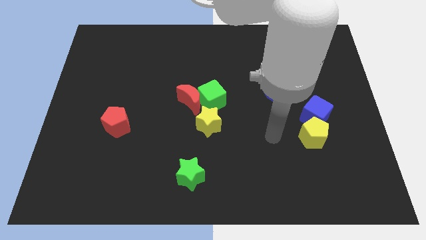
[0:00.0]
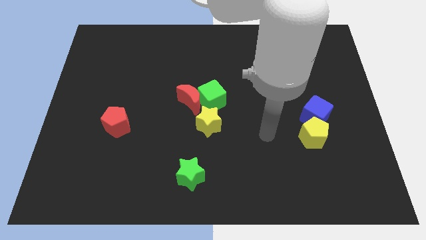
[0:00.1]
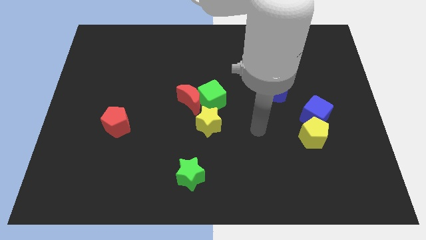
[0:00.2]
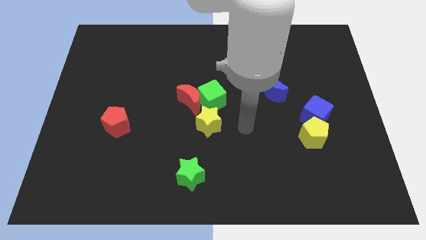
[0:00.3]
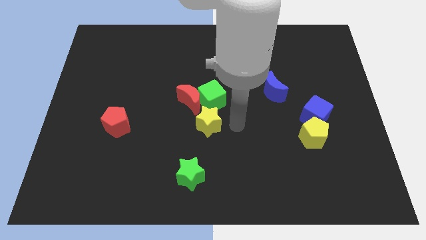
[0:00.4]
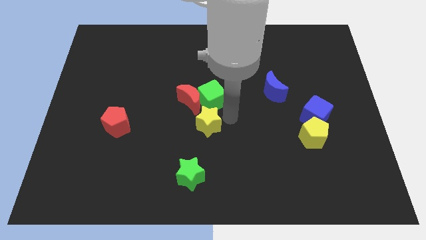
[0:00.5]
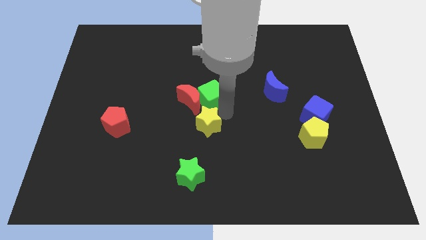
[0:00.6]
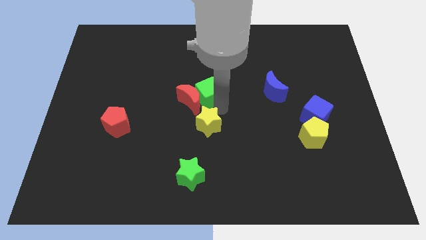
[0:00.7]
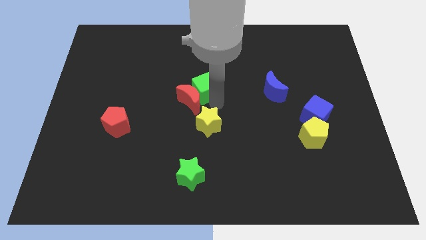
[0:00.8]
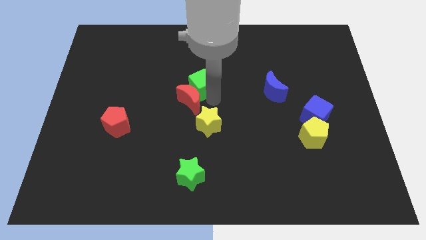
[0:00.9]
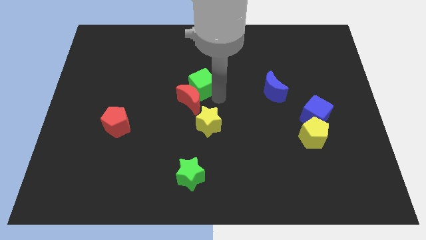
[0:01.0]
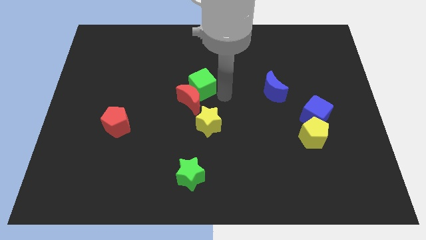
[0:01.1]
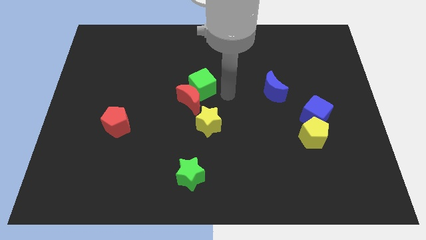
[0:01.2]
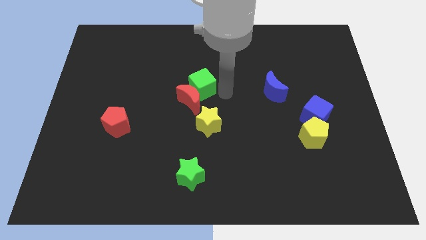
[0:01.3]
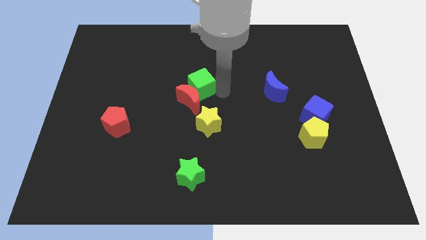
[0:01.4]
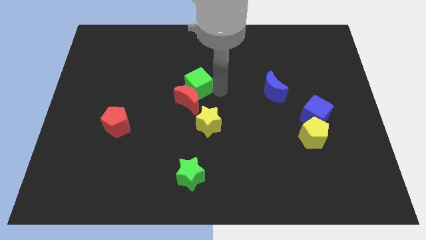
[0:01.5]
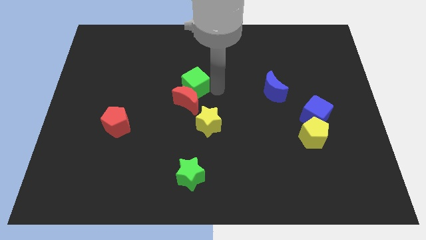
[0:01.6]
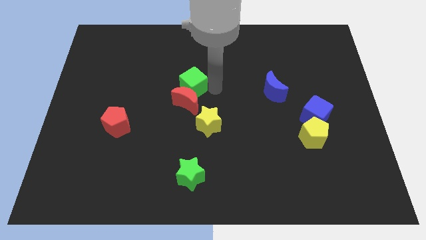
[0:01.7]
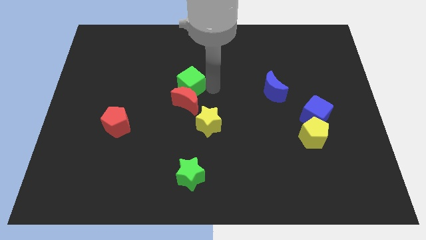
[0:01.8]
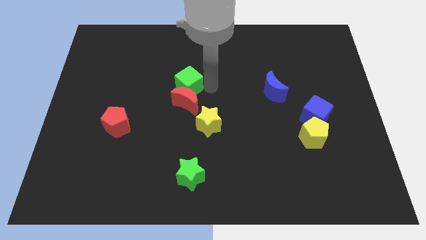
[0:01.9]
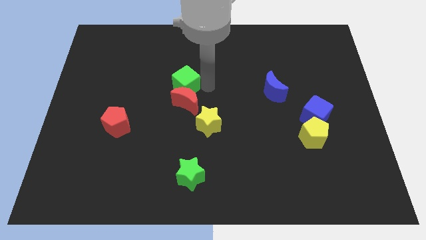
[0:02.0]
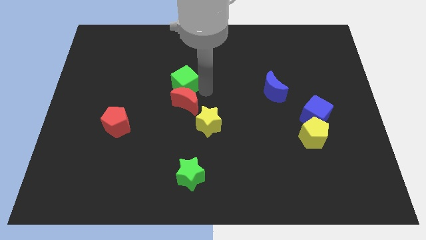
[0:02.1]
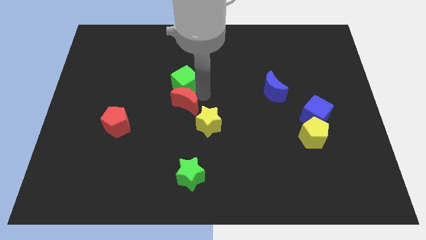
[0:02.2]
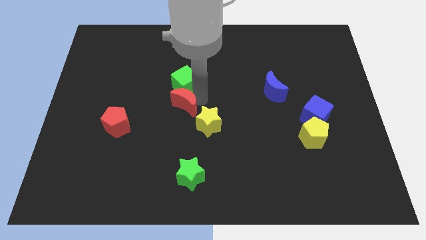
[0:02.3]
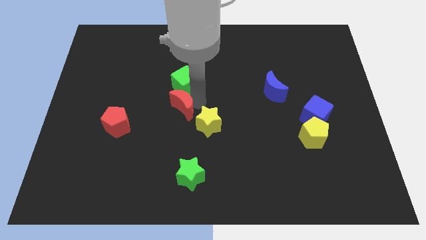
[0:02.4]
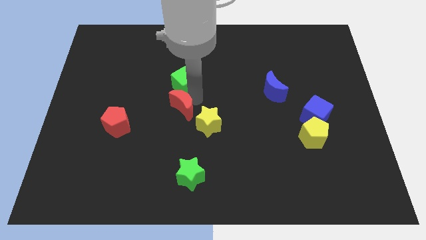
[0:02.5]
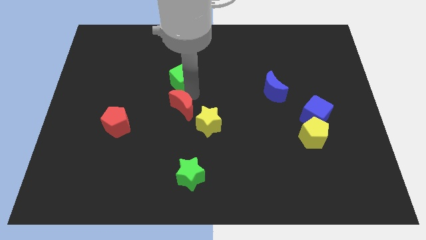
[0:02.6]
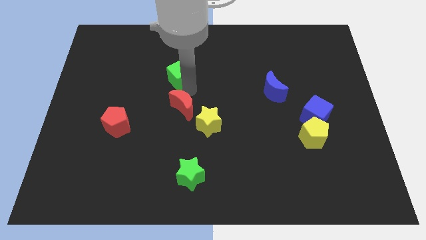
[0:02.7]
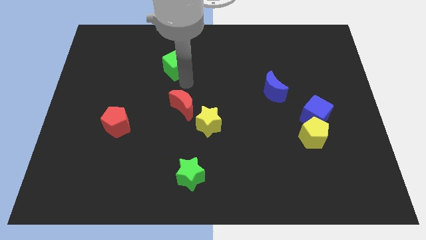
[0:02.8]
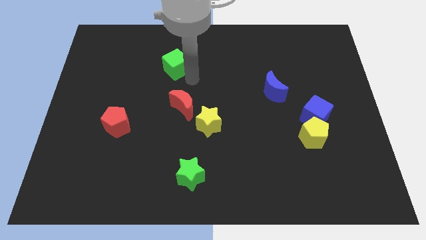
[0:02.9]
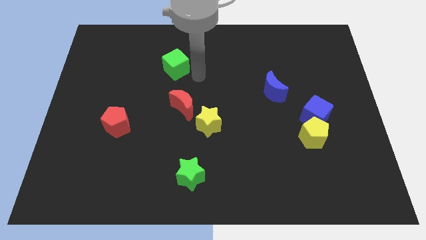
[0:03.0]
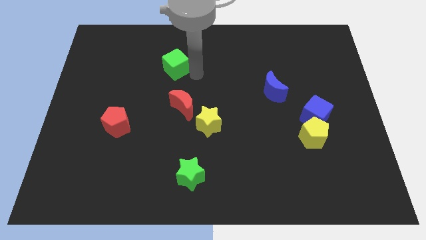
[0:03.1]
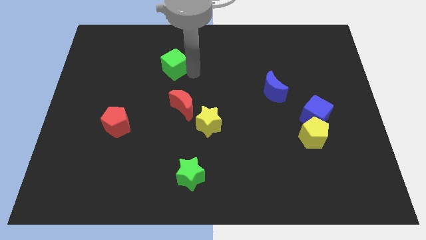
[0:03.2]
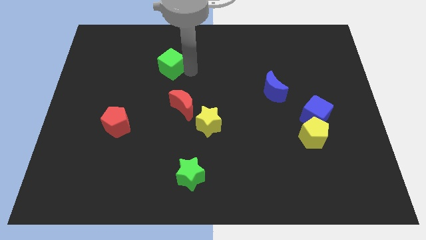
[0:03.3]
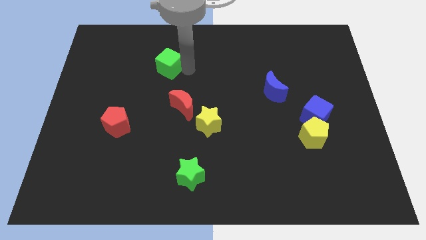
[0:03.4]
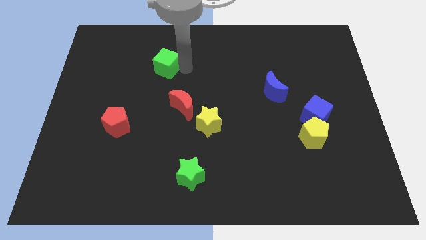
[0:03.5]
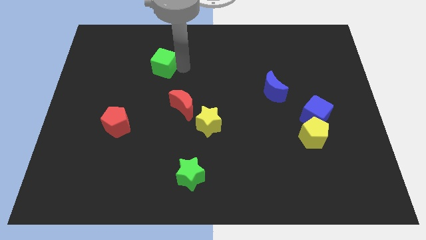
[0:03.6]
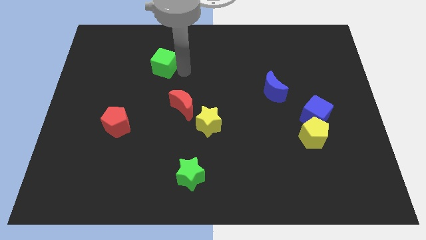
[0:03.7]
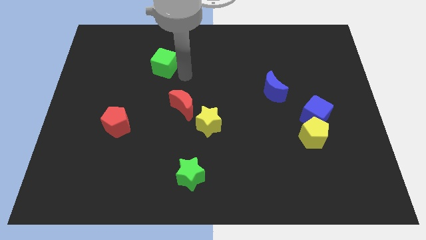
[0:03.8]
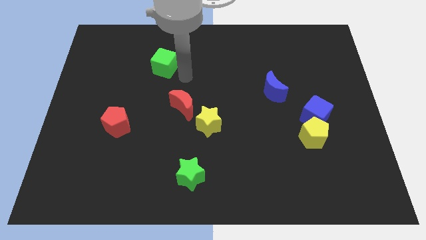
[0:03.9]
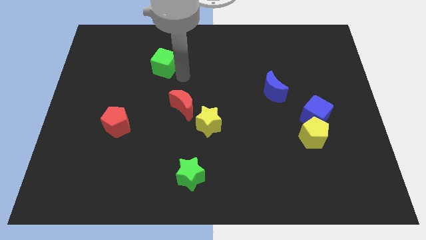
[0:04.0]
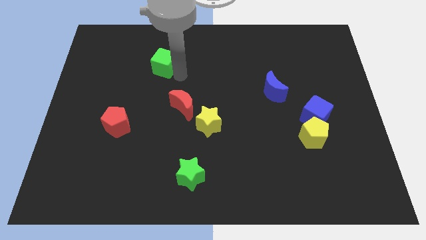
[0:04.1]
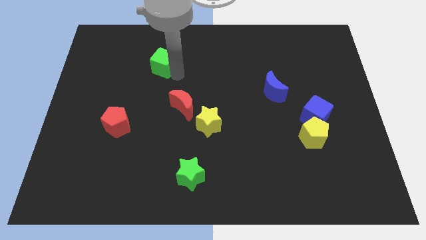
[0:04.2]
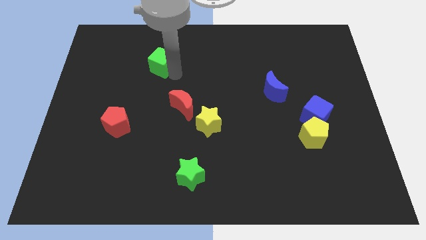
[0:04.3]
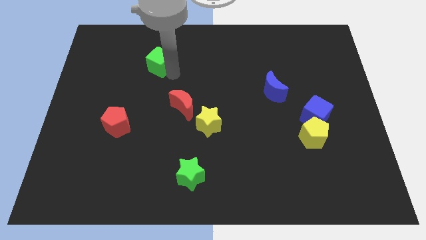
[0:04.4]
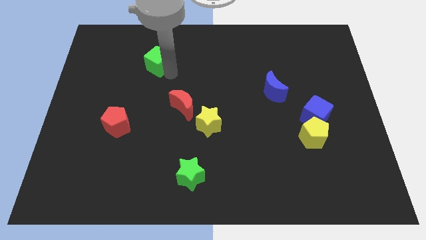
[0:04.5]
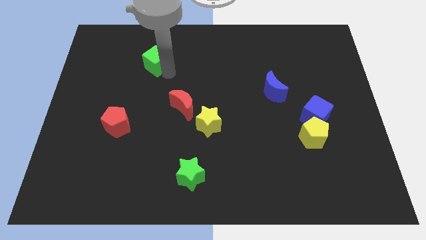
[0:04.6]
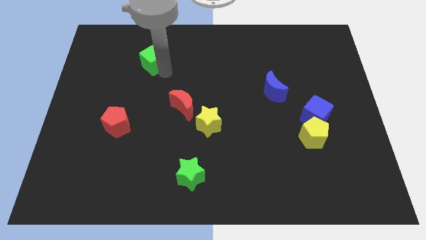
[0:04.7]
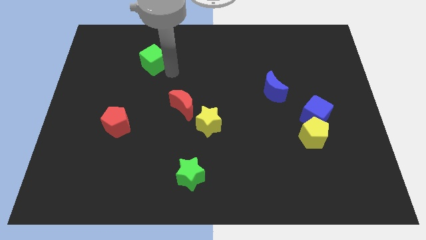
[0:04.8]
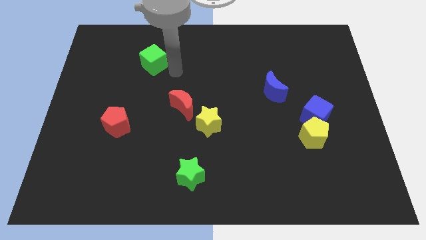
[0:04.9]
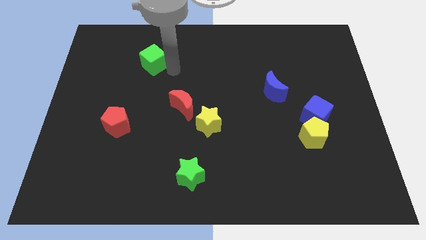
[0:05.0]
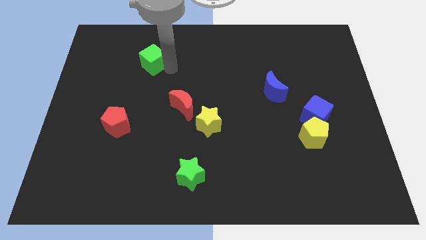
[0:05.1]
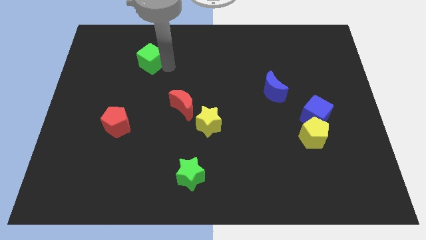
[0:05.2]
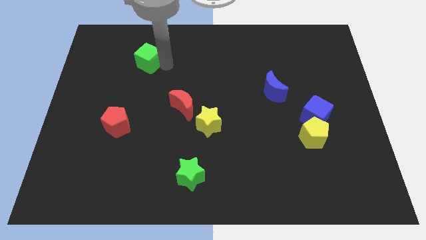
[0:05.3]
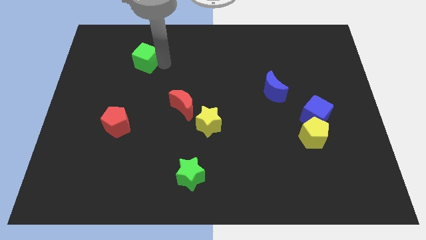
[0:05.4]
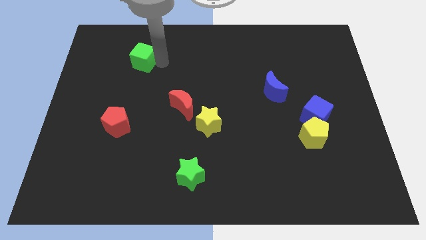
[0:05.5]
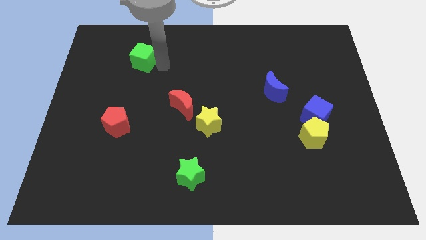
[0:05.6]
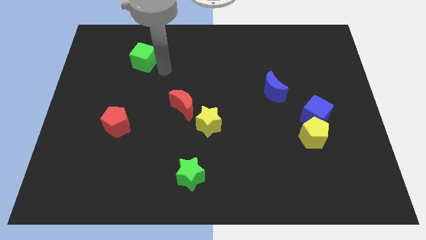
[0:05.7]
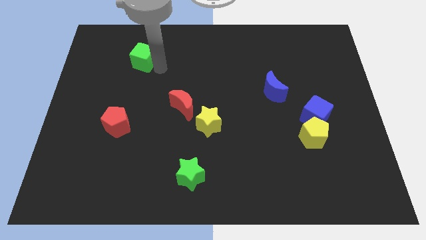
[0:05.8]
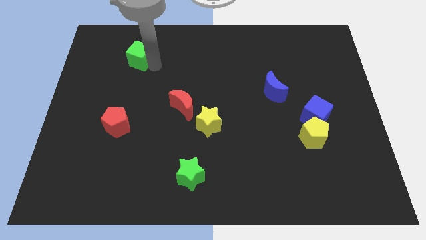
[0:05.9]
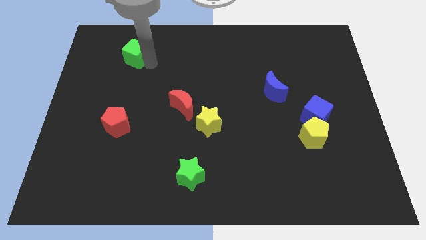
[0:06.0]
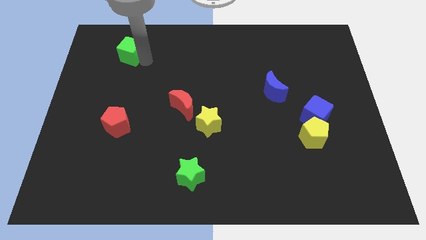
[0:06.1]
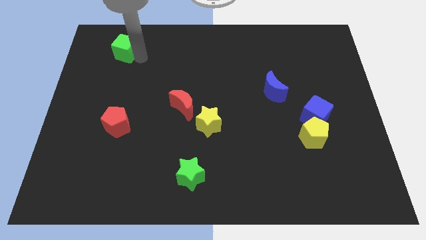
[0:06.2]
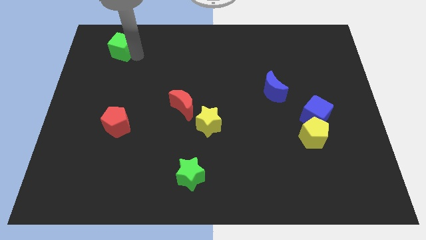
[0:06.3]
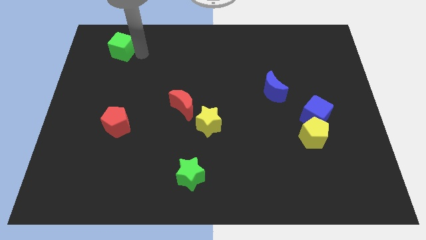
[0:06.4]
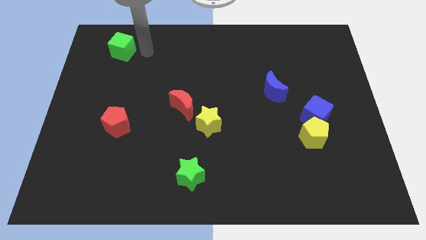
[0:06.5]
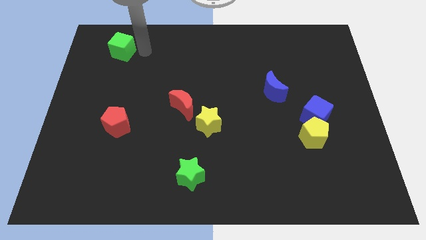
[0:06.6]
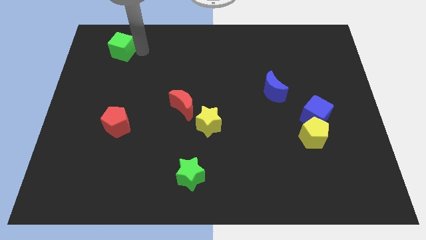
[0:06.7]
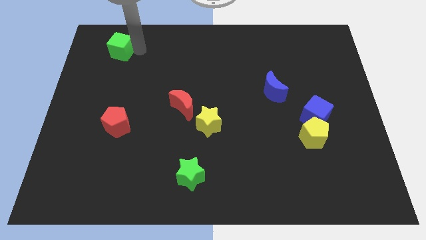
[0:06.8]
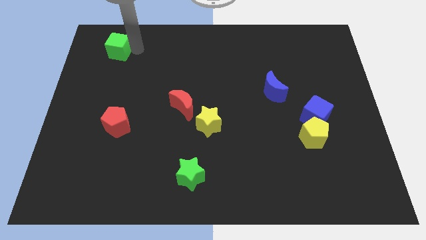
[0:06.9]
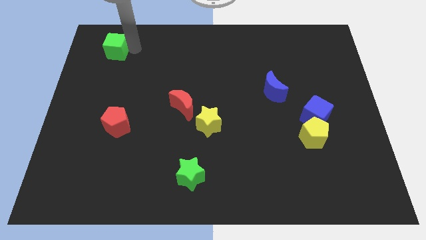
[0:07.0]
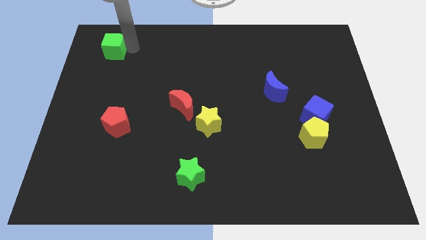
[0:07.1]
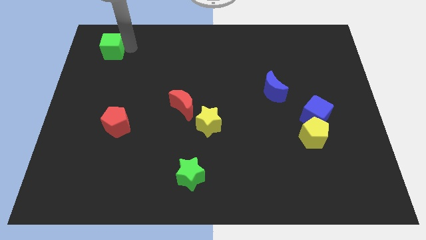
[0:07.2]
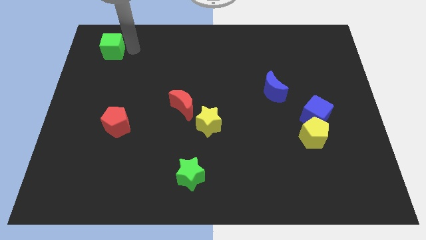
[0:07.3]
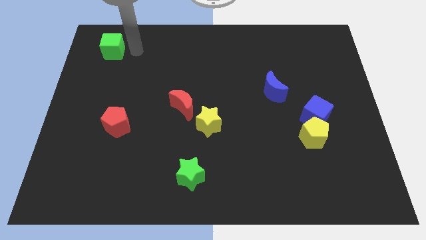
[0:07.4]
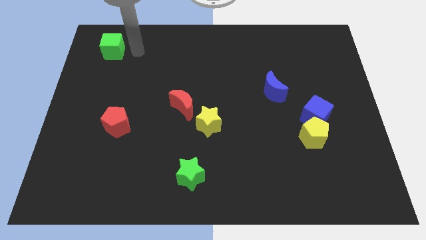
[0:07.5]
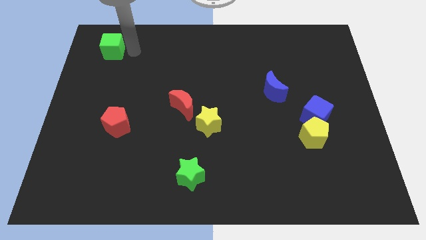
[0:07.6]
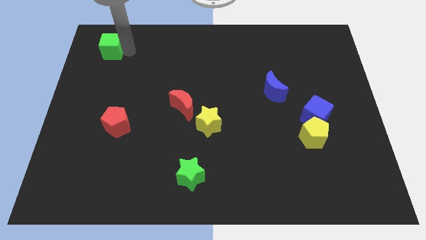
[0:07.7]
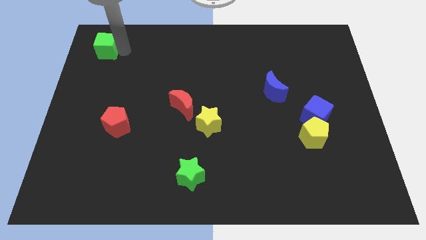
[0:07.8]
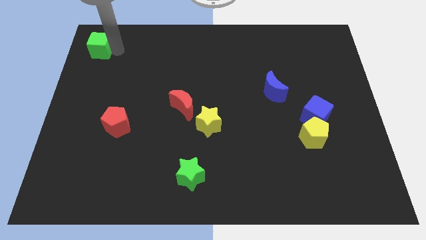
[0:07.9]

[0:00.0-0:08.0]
push the green cube to the upper left corner
